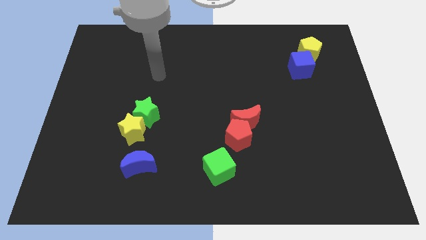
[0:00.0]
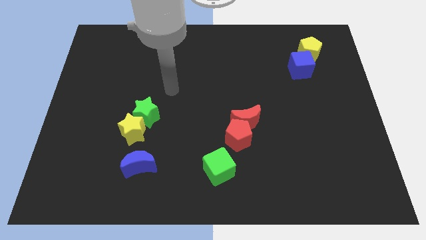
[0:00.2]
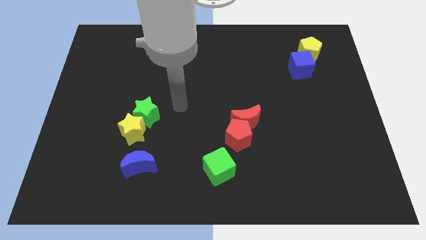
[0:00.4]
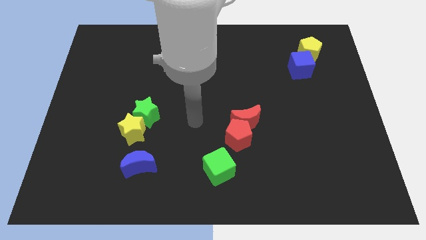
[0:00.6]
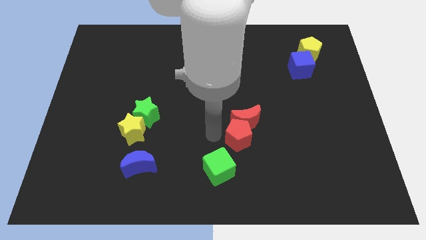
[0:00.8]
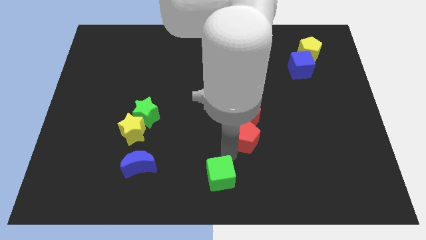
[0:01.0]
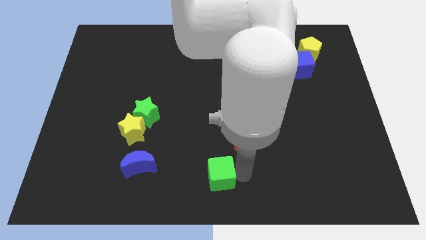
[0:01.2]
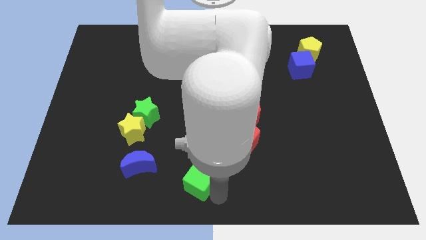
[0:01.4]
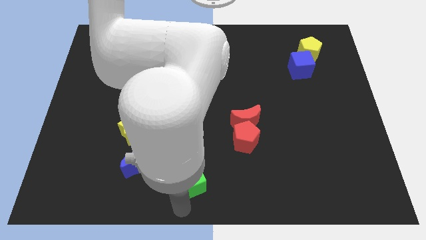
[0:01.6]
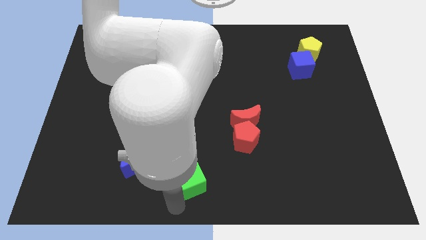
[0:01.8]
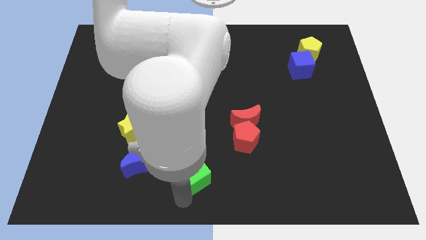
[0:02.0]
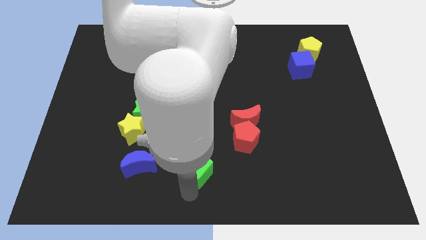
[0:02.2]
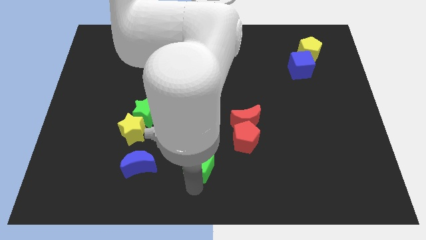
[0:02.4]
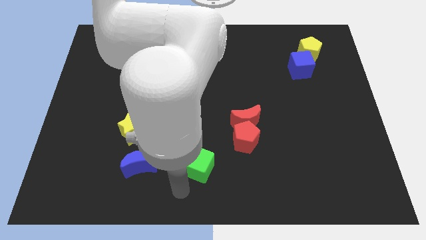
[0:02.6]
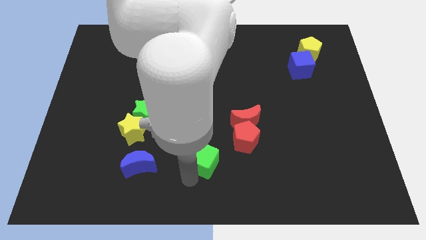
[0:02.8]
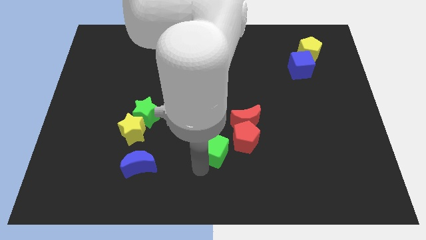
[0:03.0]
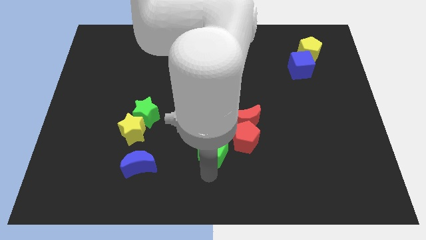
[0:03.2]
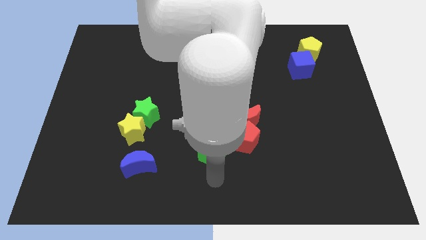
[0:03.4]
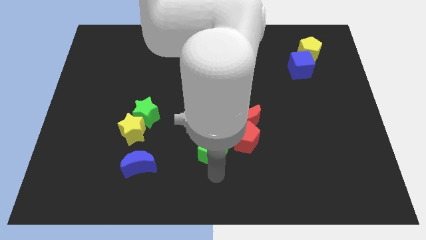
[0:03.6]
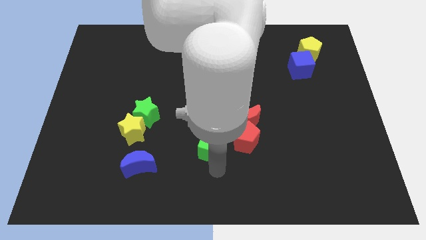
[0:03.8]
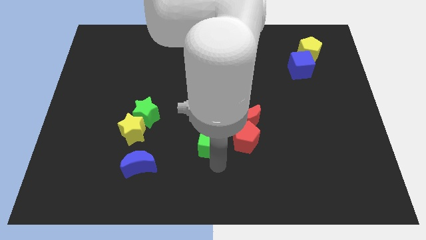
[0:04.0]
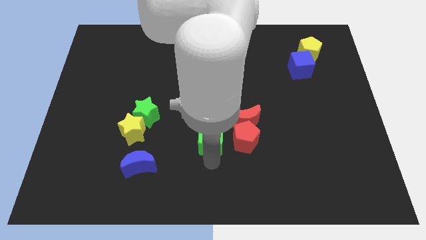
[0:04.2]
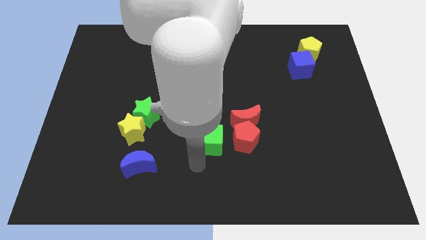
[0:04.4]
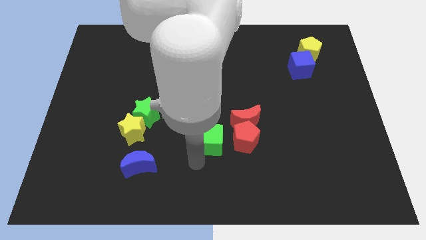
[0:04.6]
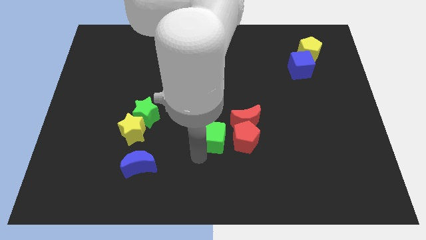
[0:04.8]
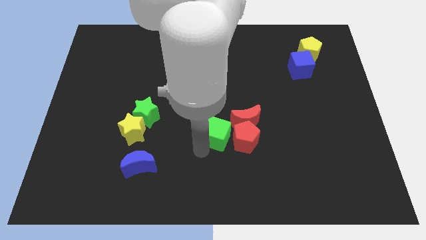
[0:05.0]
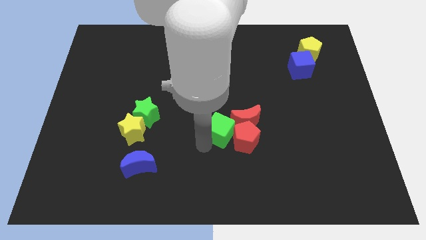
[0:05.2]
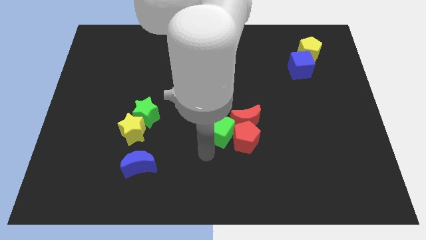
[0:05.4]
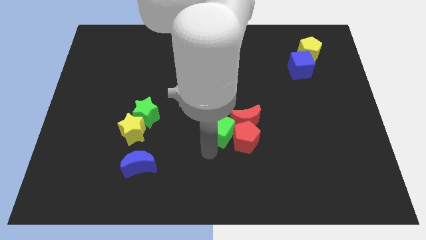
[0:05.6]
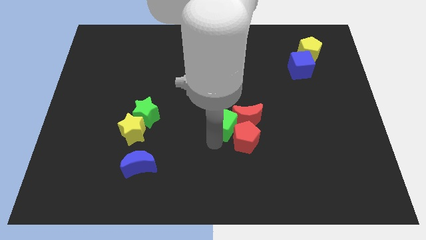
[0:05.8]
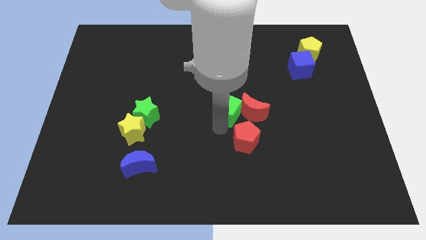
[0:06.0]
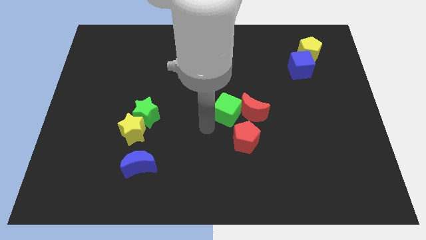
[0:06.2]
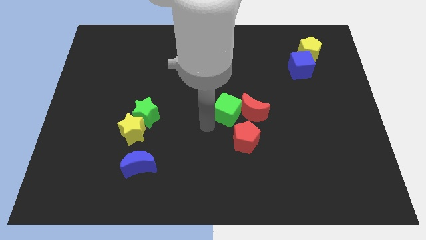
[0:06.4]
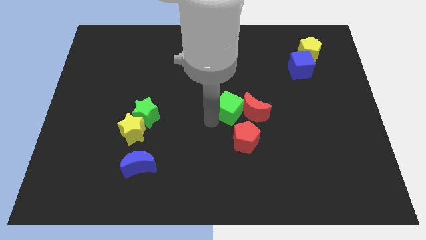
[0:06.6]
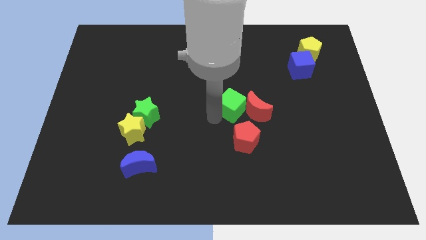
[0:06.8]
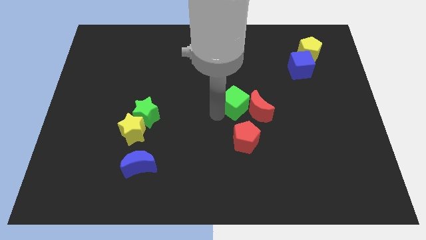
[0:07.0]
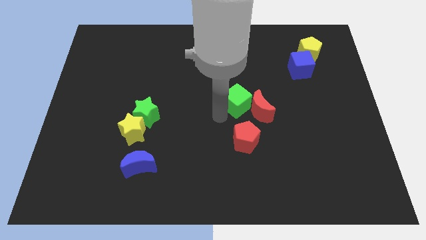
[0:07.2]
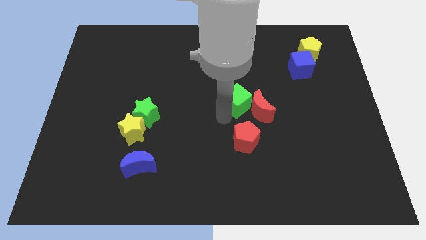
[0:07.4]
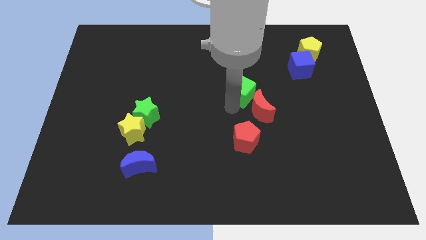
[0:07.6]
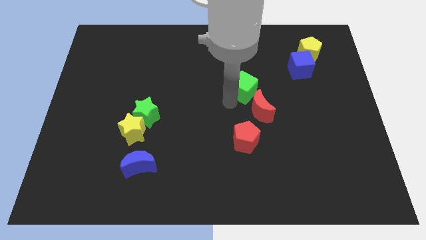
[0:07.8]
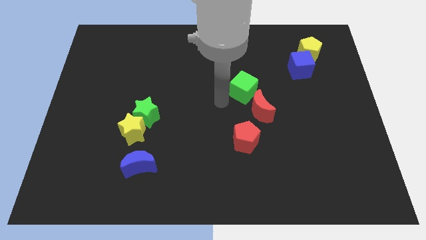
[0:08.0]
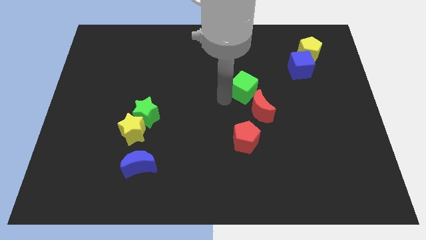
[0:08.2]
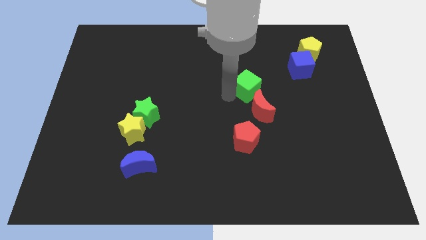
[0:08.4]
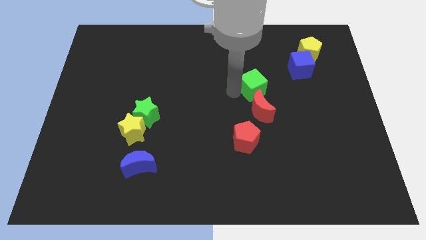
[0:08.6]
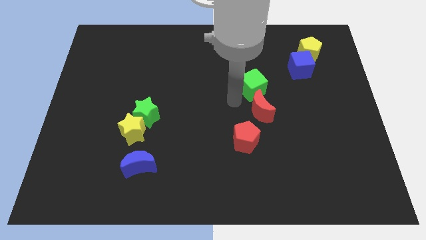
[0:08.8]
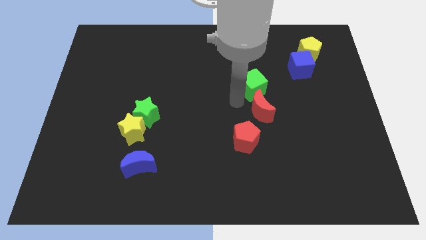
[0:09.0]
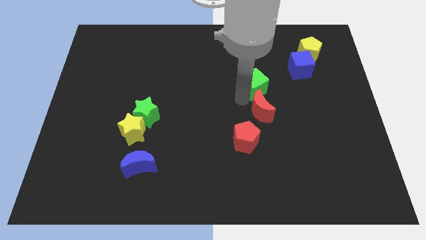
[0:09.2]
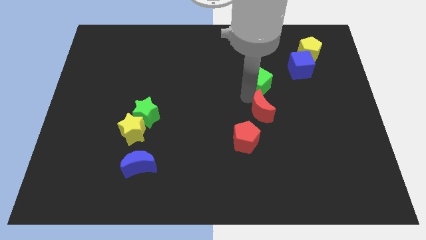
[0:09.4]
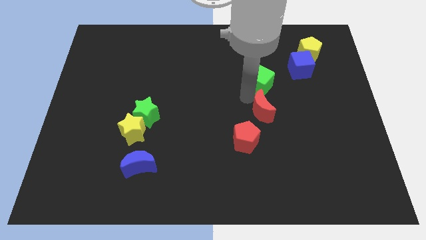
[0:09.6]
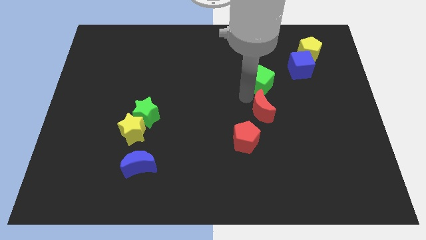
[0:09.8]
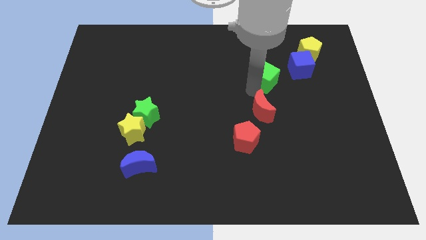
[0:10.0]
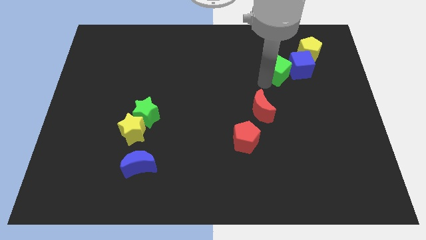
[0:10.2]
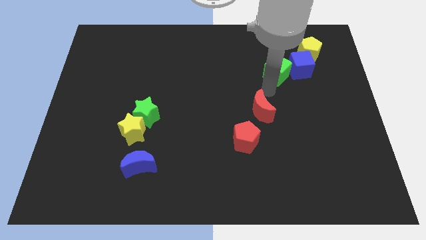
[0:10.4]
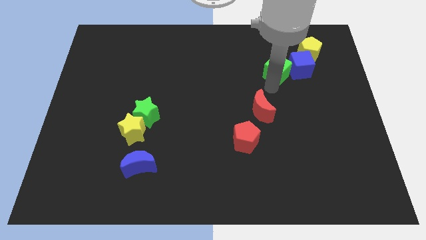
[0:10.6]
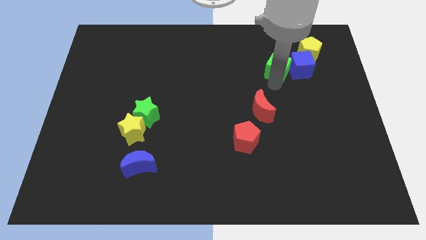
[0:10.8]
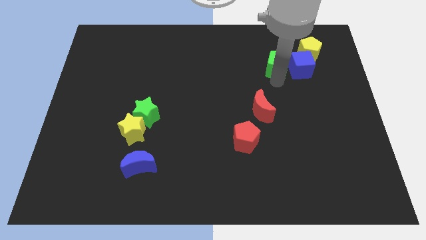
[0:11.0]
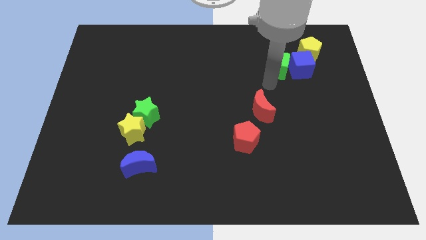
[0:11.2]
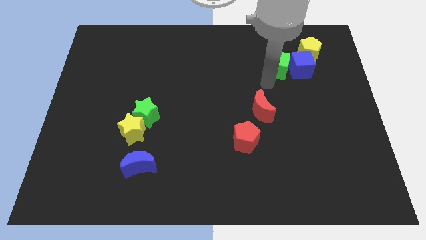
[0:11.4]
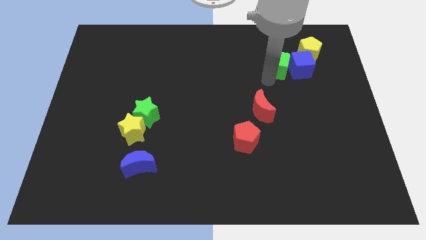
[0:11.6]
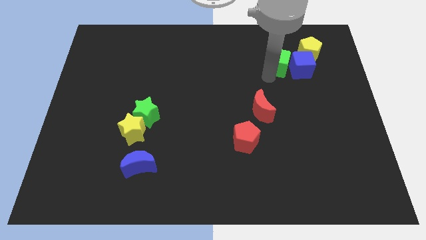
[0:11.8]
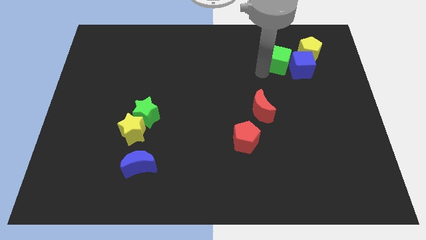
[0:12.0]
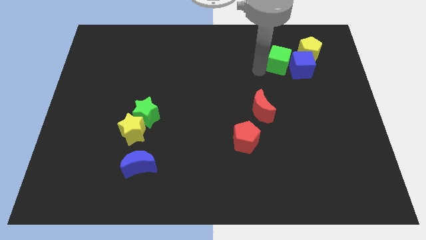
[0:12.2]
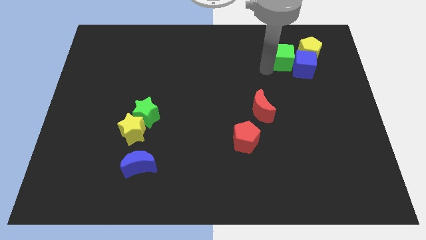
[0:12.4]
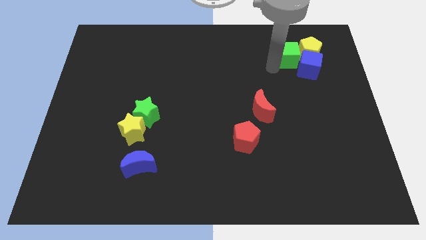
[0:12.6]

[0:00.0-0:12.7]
put the green cube towards the yellow pentagon
